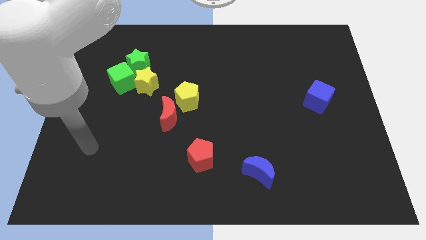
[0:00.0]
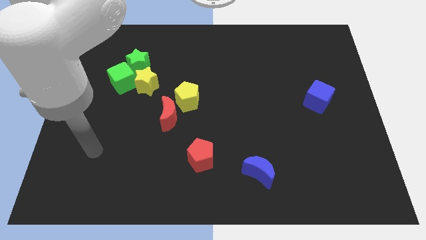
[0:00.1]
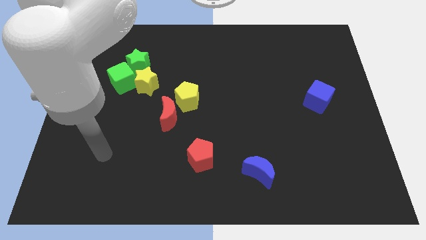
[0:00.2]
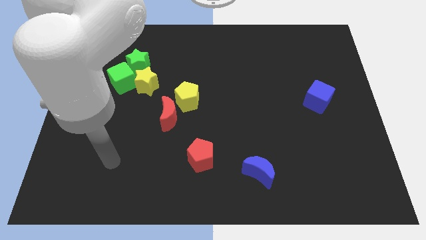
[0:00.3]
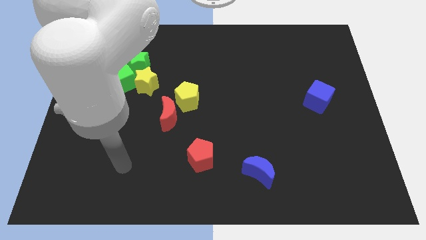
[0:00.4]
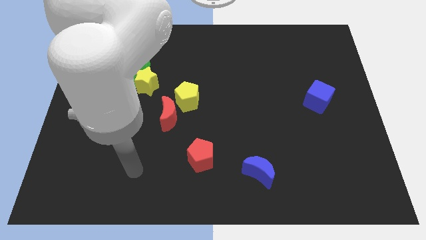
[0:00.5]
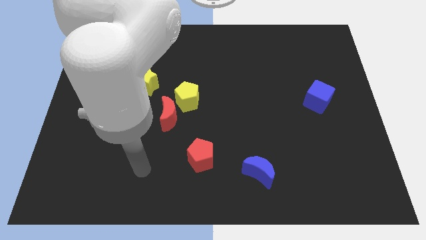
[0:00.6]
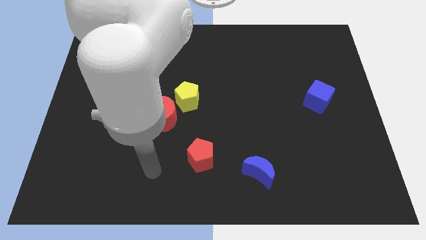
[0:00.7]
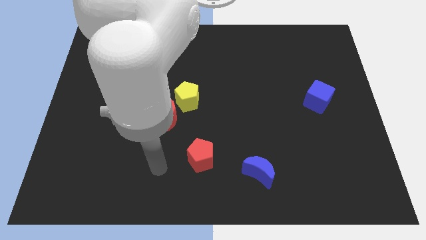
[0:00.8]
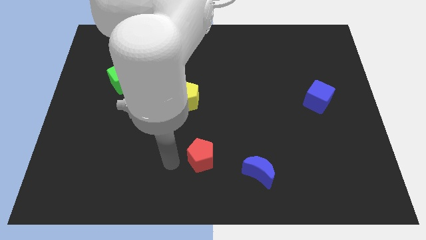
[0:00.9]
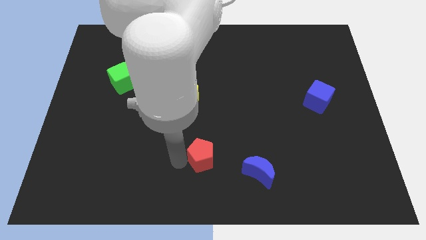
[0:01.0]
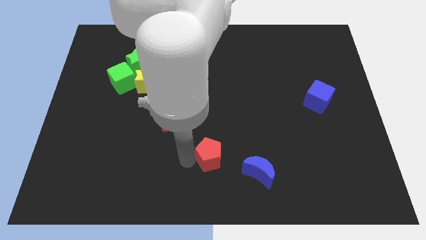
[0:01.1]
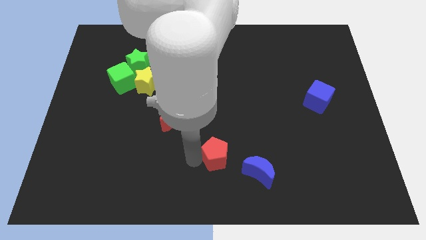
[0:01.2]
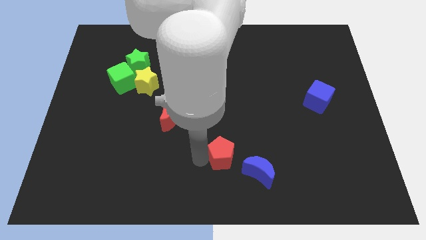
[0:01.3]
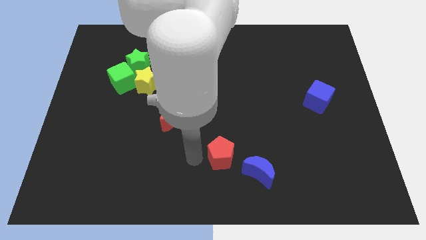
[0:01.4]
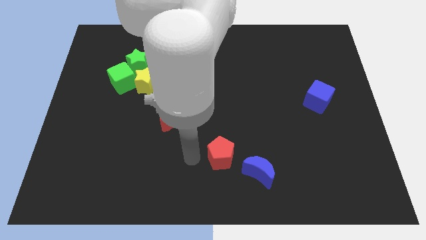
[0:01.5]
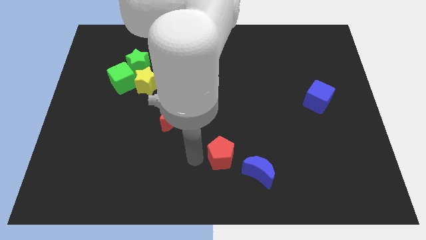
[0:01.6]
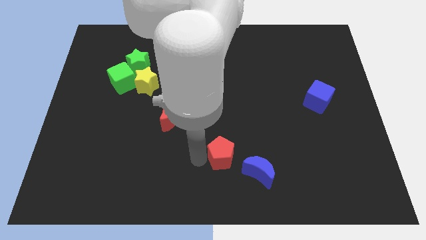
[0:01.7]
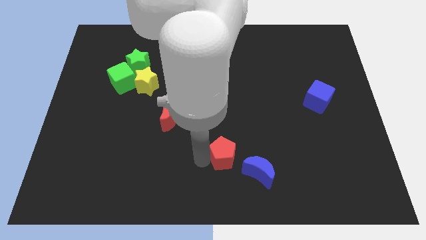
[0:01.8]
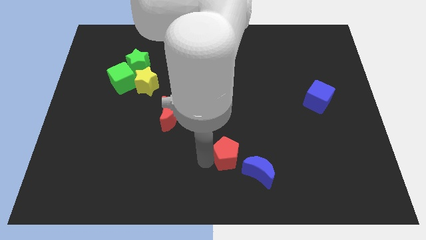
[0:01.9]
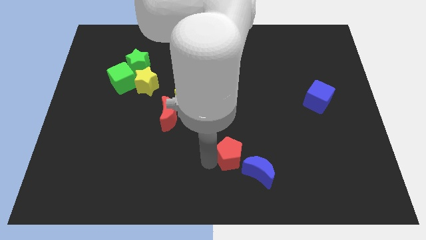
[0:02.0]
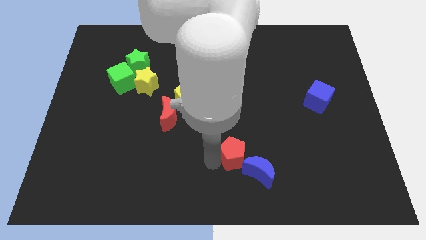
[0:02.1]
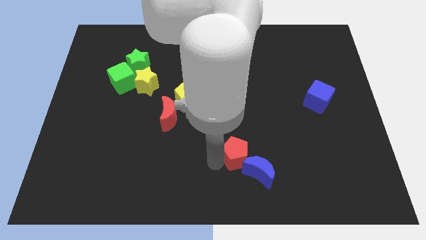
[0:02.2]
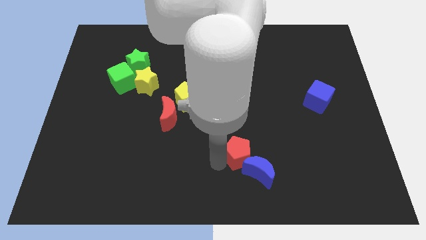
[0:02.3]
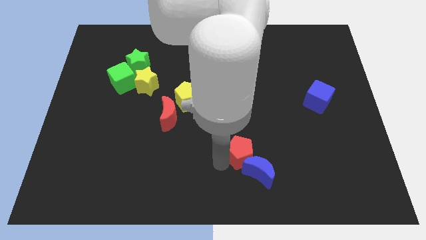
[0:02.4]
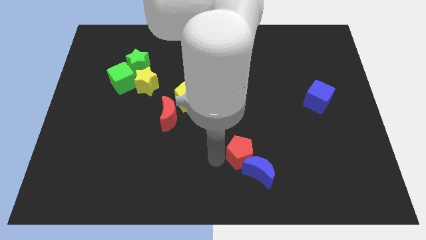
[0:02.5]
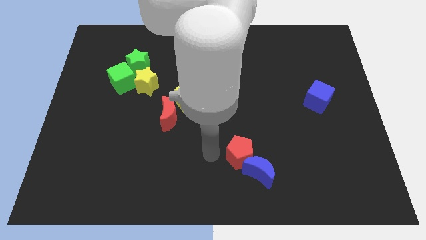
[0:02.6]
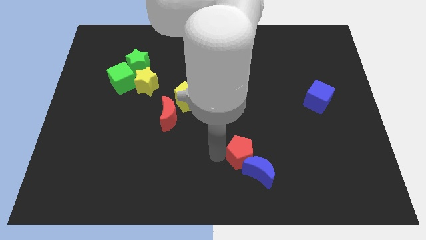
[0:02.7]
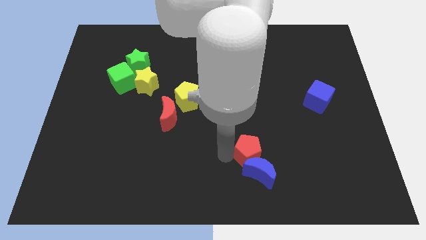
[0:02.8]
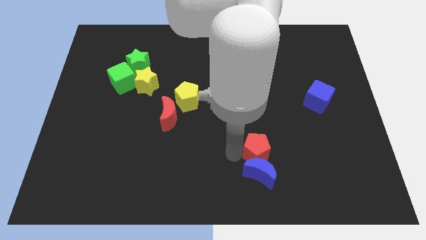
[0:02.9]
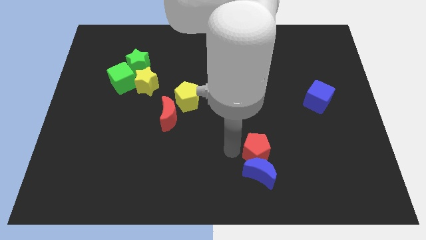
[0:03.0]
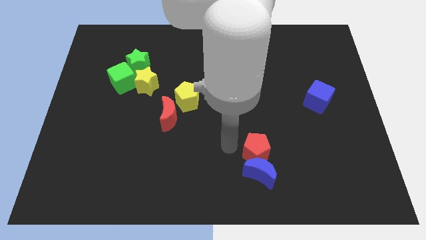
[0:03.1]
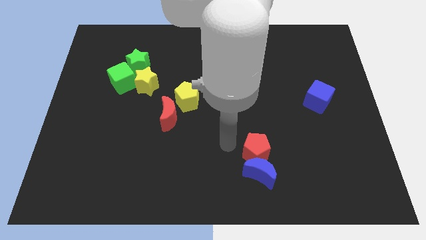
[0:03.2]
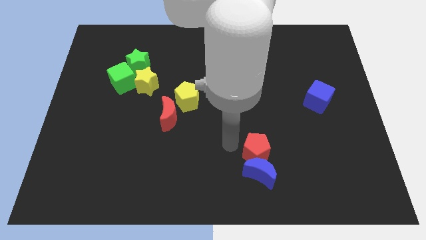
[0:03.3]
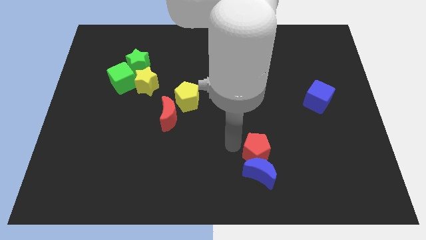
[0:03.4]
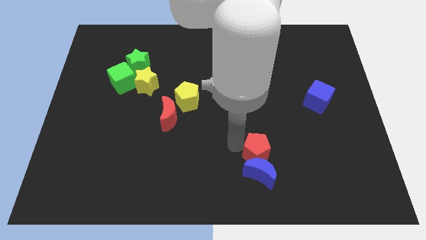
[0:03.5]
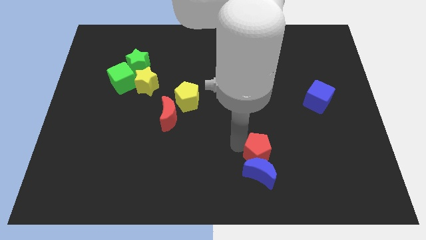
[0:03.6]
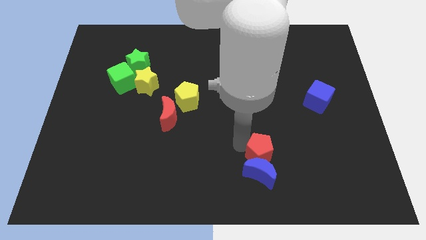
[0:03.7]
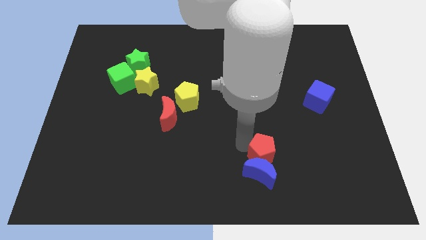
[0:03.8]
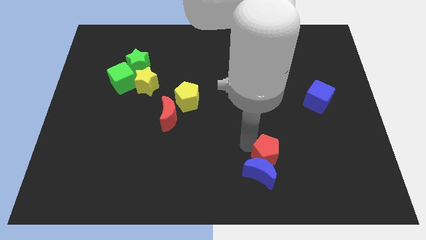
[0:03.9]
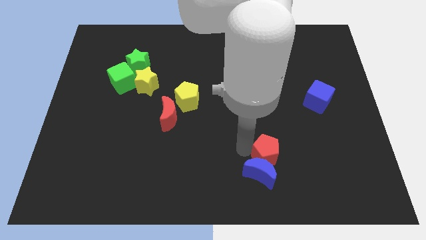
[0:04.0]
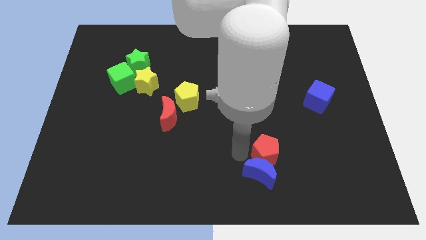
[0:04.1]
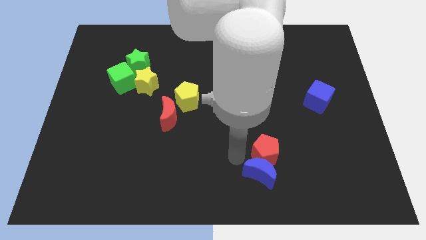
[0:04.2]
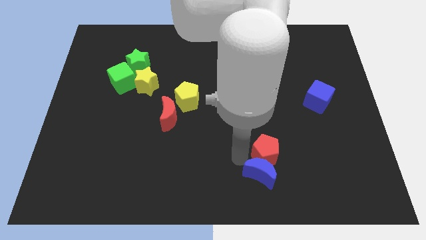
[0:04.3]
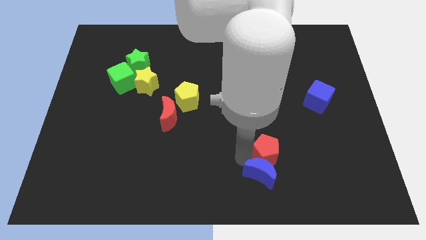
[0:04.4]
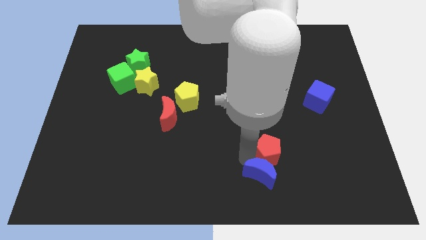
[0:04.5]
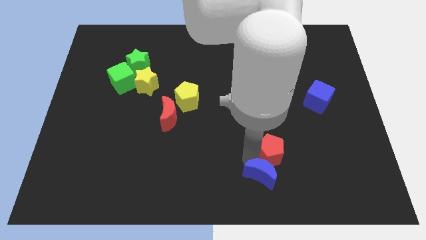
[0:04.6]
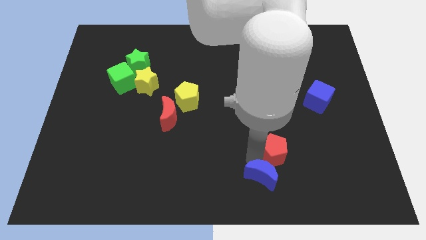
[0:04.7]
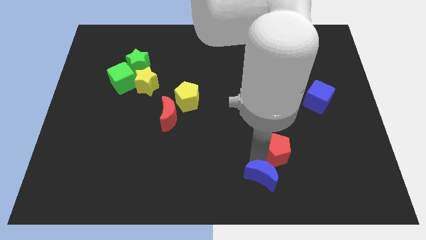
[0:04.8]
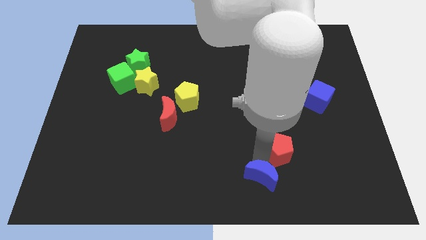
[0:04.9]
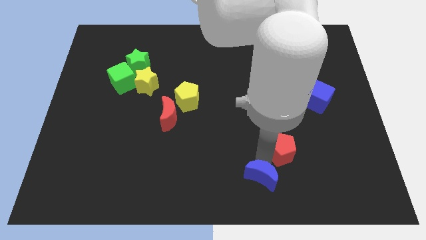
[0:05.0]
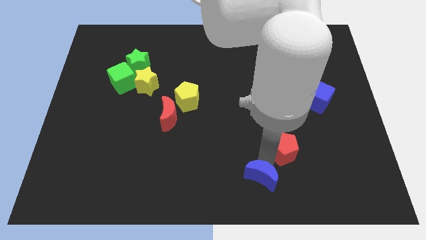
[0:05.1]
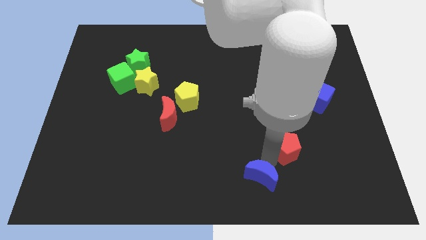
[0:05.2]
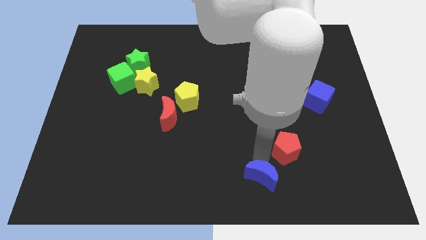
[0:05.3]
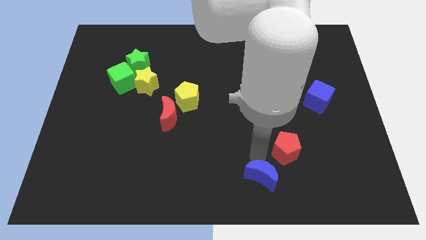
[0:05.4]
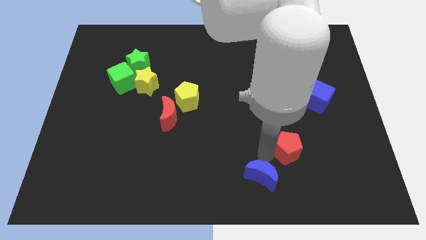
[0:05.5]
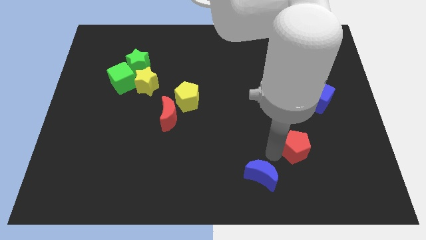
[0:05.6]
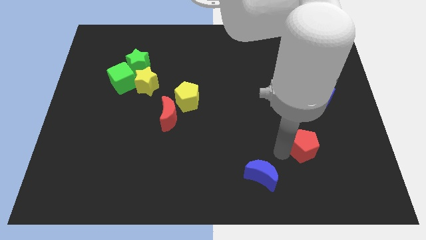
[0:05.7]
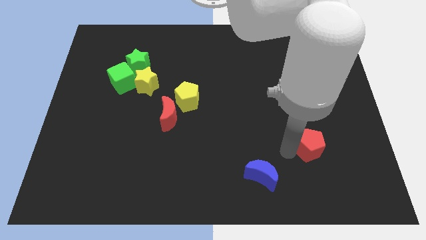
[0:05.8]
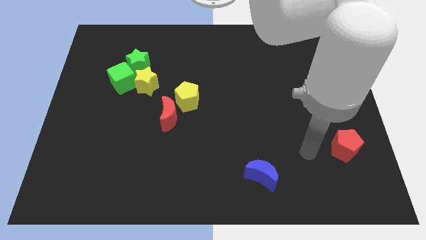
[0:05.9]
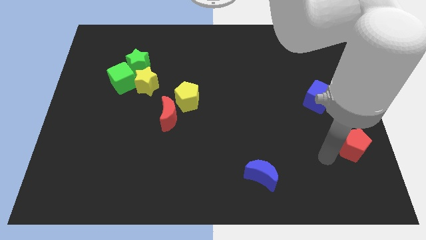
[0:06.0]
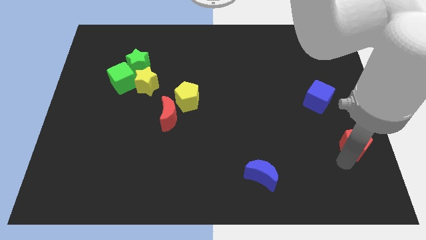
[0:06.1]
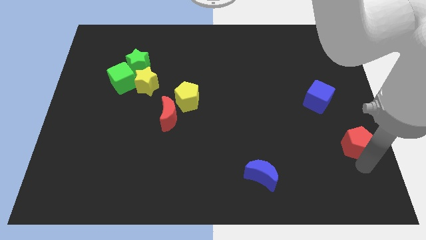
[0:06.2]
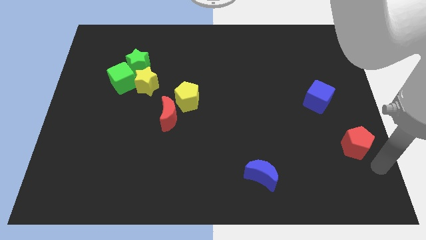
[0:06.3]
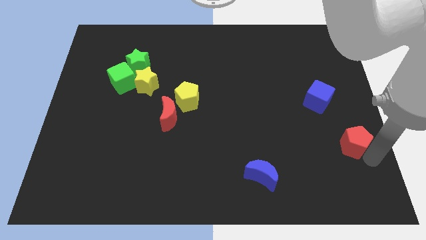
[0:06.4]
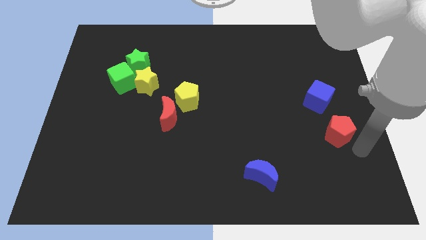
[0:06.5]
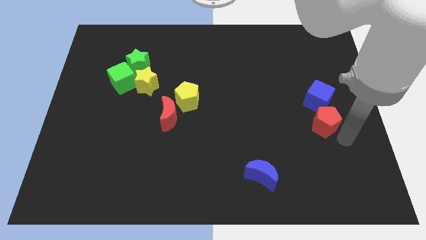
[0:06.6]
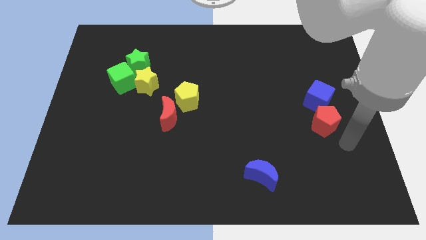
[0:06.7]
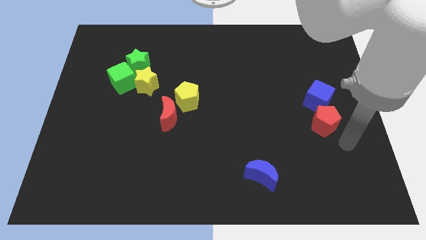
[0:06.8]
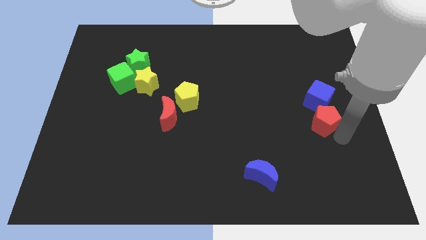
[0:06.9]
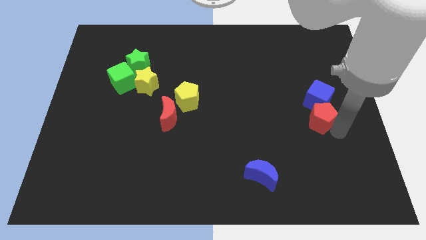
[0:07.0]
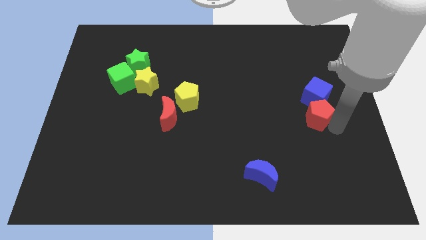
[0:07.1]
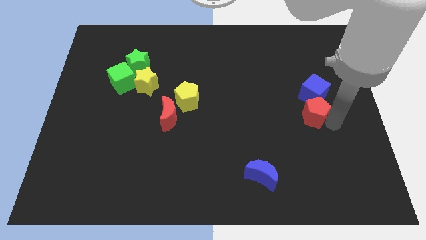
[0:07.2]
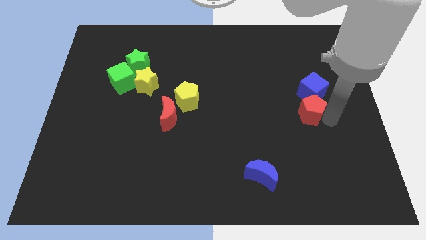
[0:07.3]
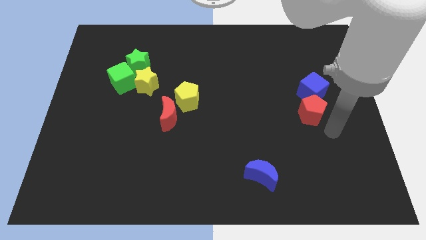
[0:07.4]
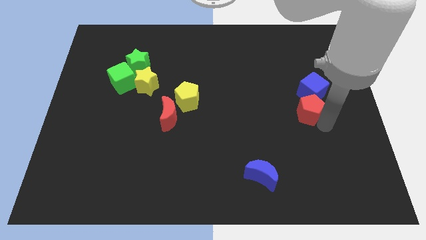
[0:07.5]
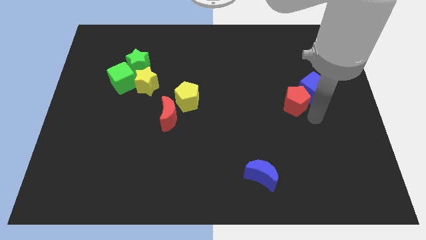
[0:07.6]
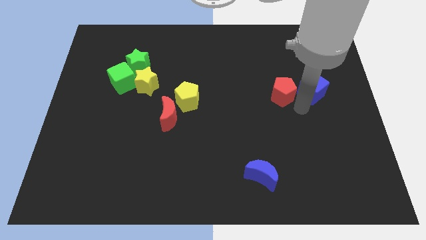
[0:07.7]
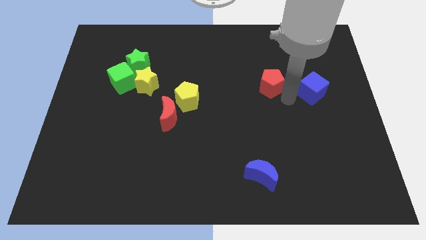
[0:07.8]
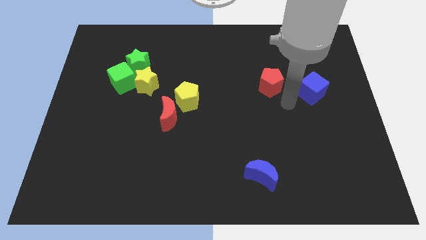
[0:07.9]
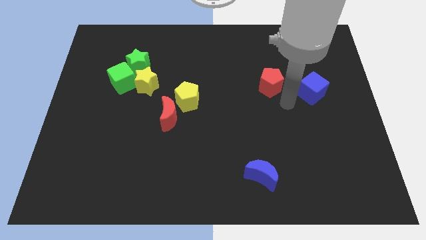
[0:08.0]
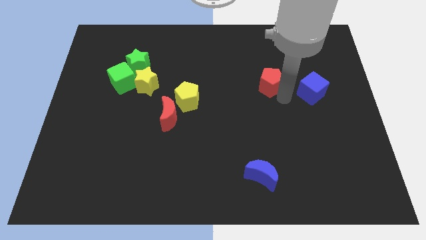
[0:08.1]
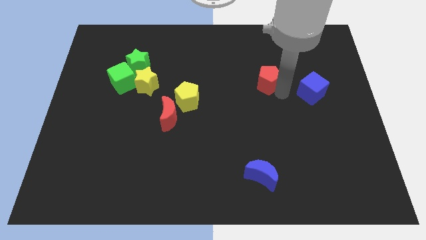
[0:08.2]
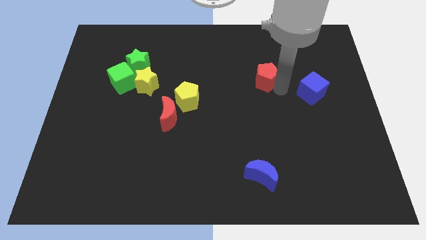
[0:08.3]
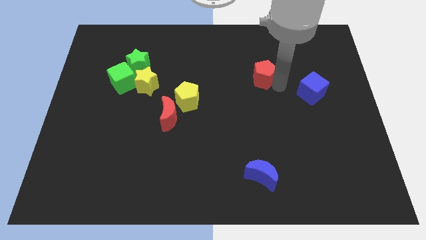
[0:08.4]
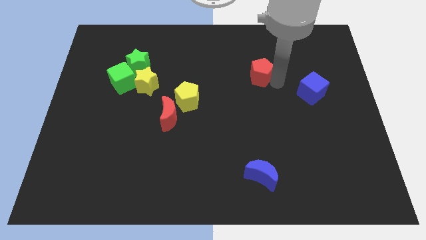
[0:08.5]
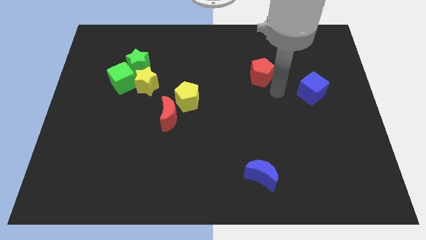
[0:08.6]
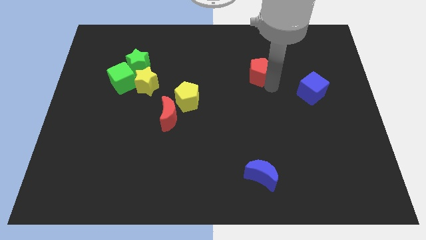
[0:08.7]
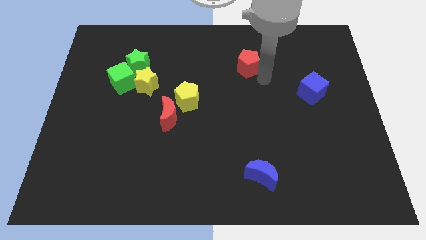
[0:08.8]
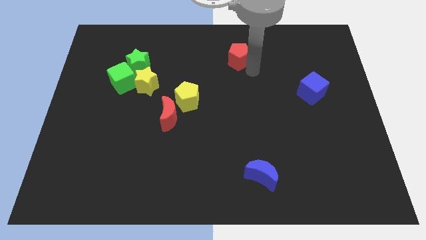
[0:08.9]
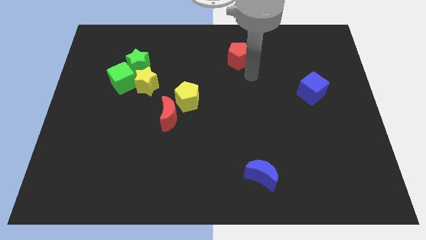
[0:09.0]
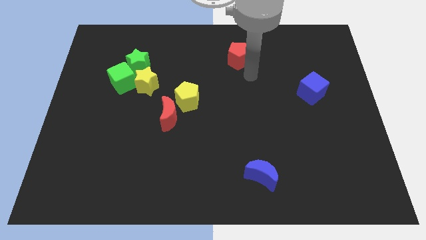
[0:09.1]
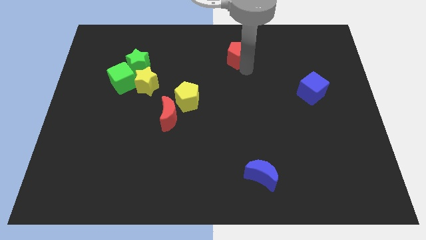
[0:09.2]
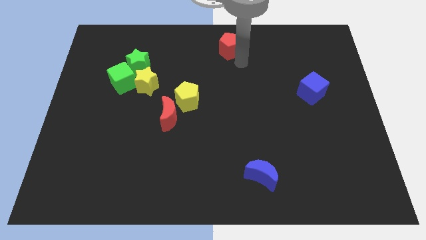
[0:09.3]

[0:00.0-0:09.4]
put the red pentagon to the top side
